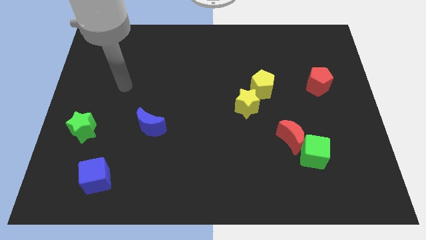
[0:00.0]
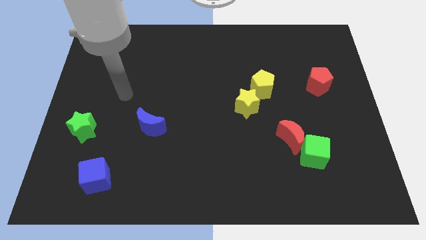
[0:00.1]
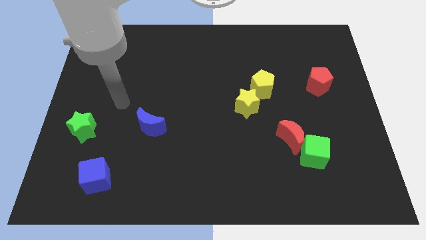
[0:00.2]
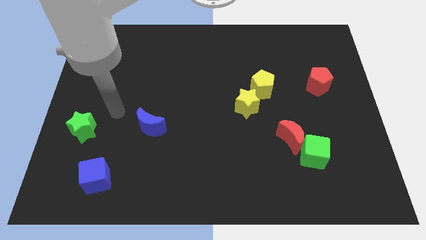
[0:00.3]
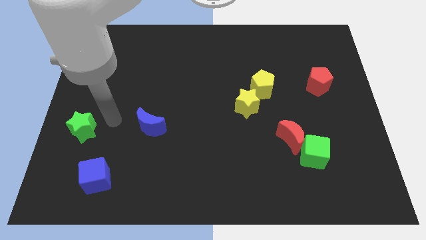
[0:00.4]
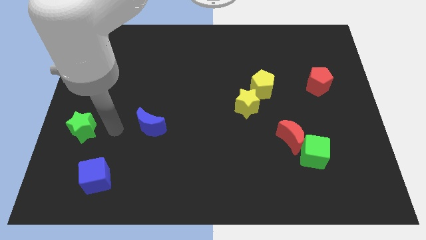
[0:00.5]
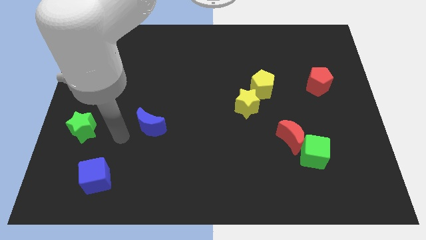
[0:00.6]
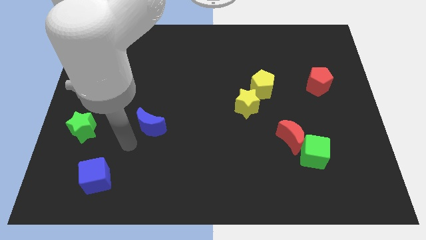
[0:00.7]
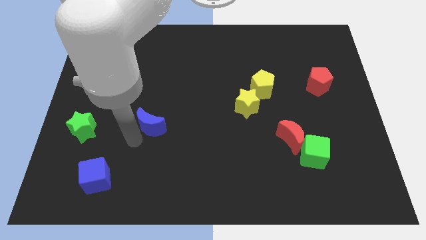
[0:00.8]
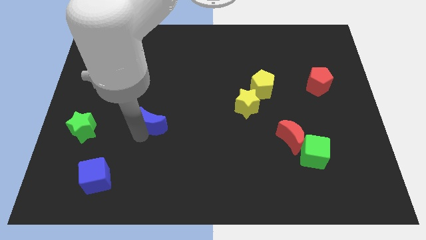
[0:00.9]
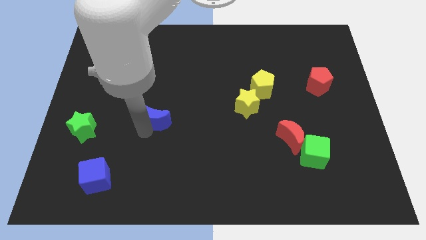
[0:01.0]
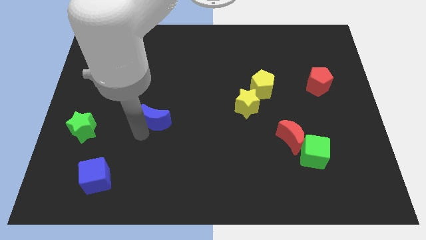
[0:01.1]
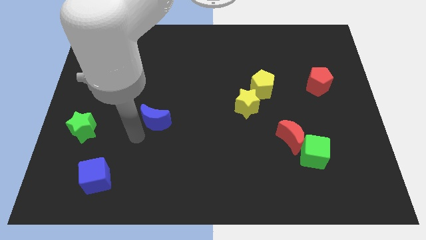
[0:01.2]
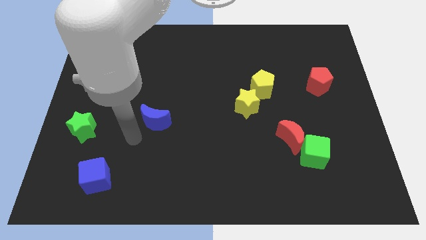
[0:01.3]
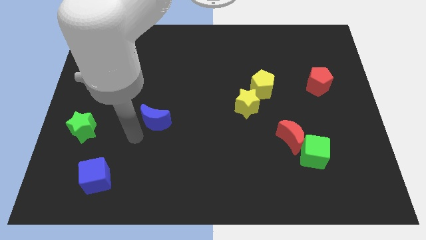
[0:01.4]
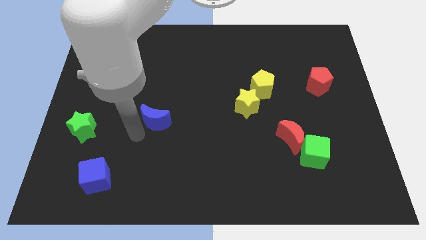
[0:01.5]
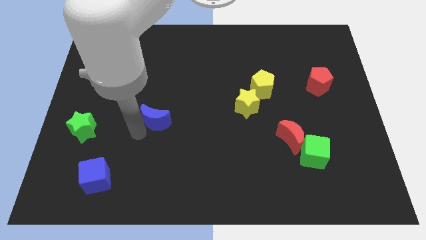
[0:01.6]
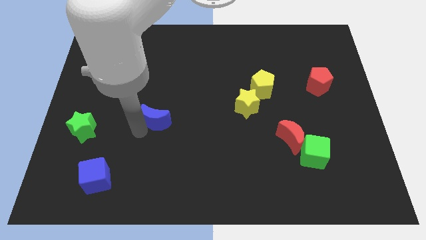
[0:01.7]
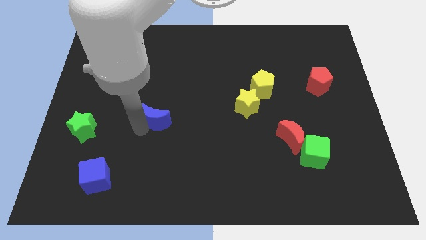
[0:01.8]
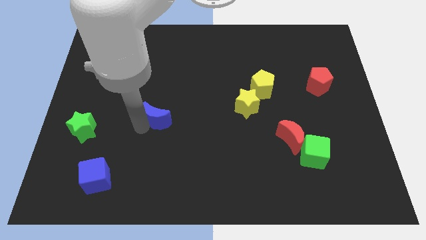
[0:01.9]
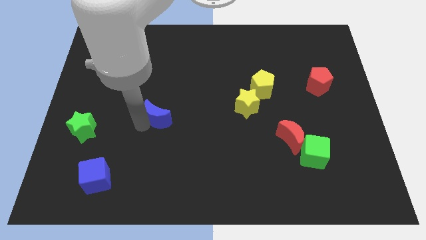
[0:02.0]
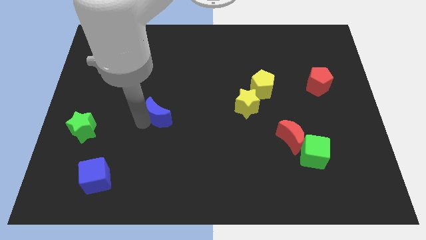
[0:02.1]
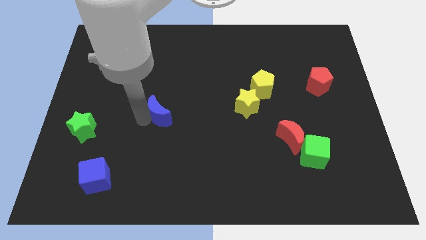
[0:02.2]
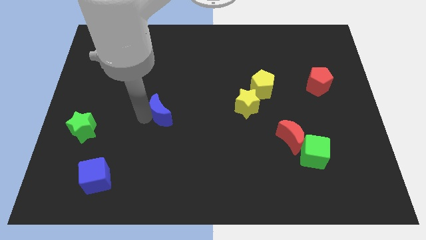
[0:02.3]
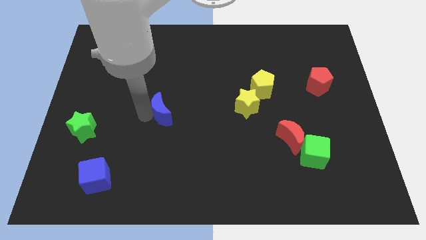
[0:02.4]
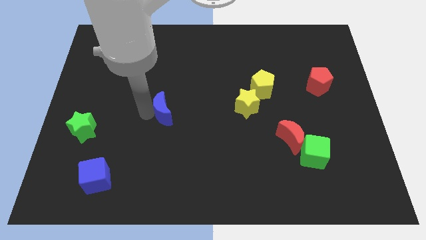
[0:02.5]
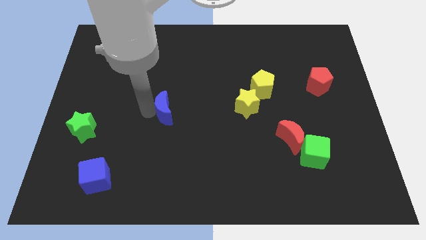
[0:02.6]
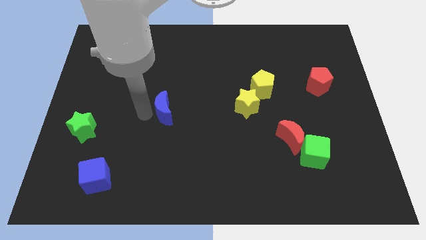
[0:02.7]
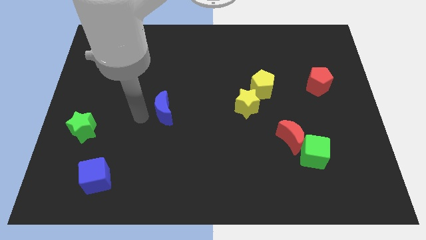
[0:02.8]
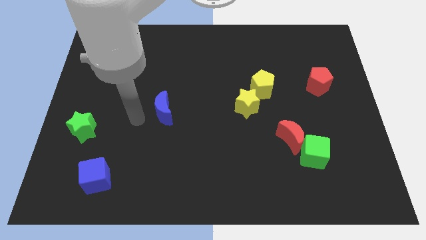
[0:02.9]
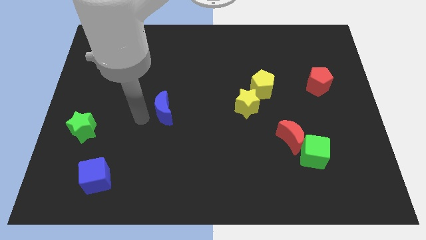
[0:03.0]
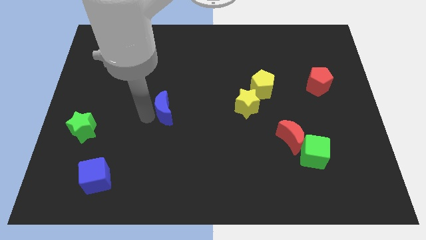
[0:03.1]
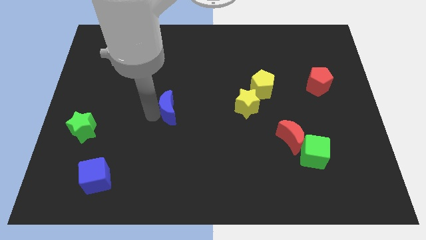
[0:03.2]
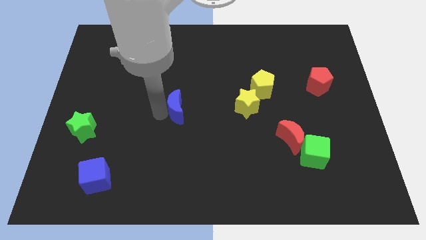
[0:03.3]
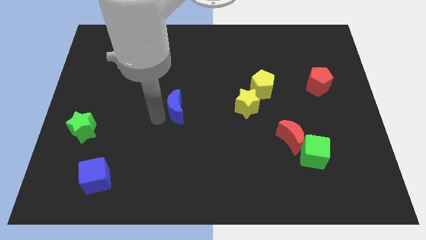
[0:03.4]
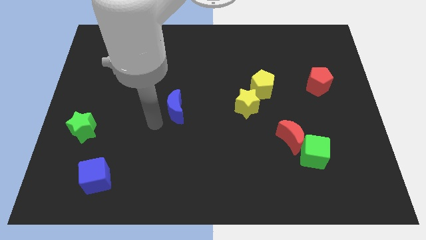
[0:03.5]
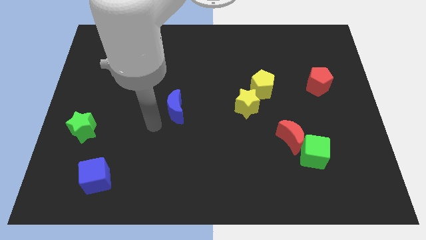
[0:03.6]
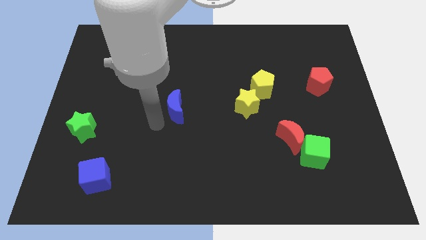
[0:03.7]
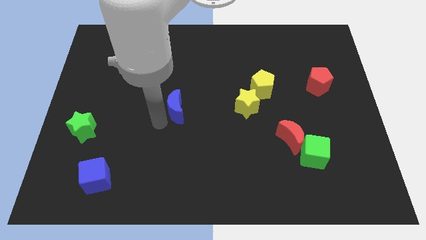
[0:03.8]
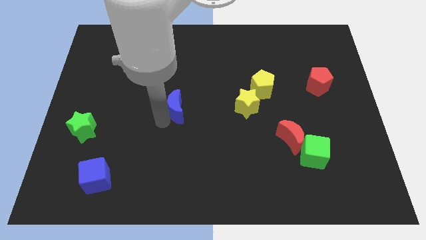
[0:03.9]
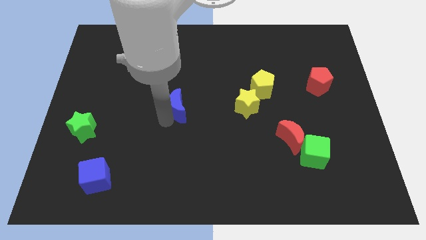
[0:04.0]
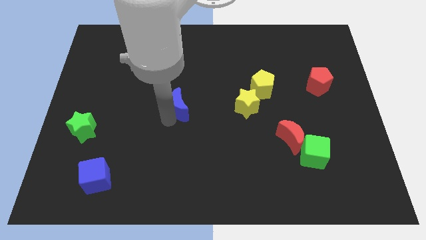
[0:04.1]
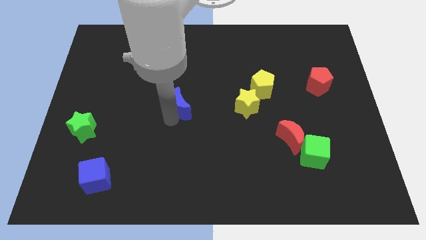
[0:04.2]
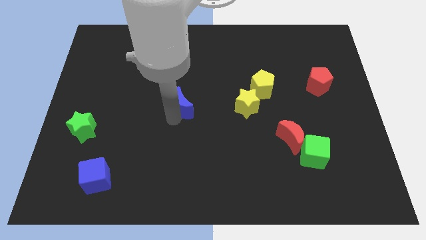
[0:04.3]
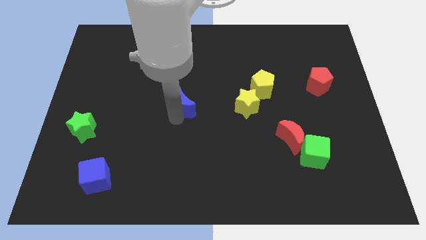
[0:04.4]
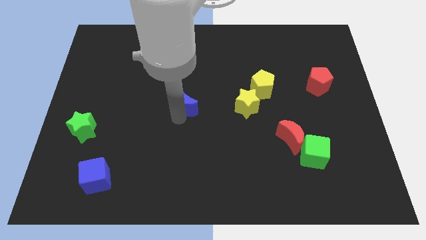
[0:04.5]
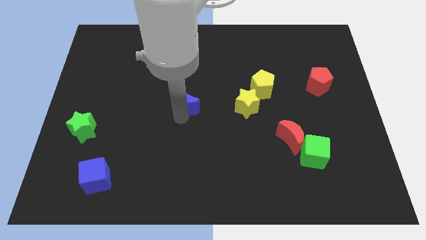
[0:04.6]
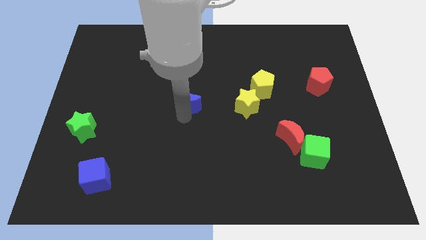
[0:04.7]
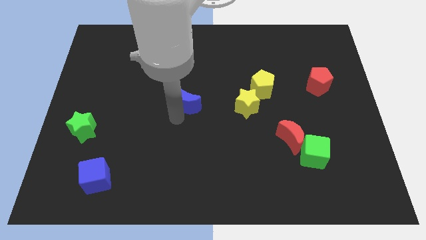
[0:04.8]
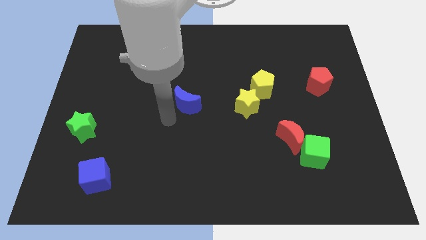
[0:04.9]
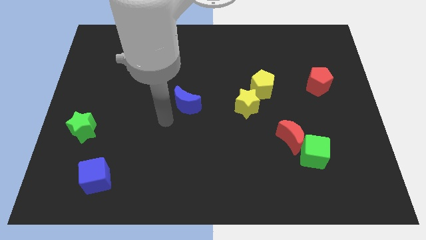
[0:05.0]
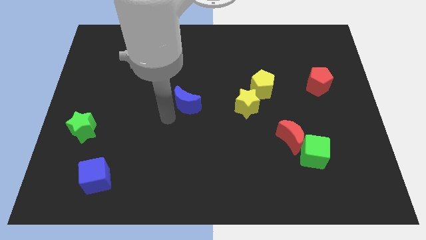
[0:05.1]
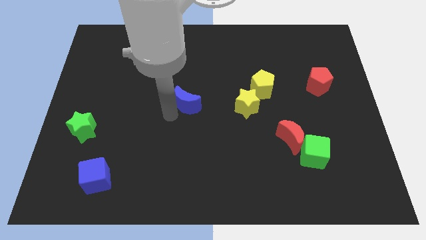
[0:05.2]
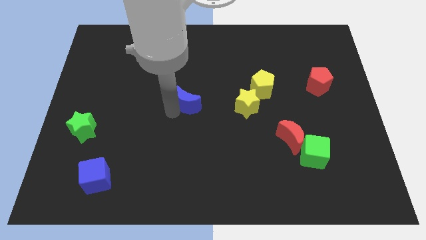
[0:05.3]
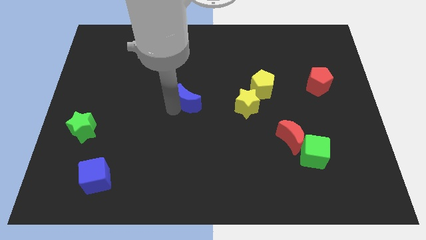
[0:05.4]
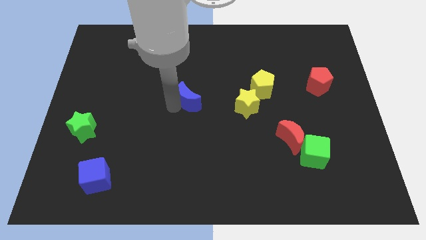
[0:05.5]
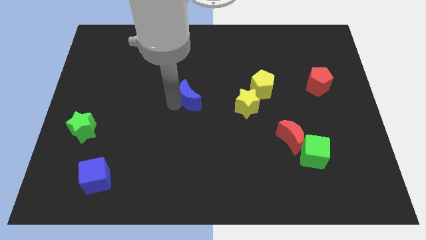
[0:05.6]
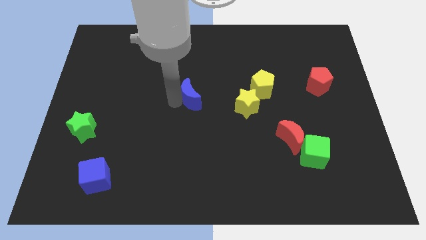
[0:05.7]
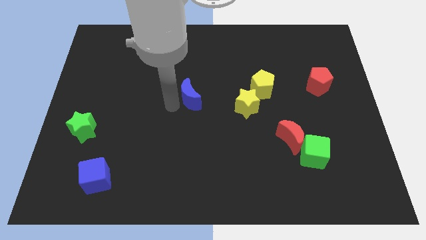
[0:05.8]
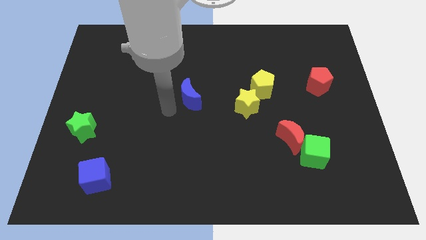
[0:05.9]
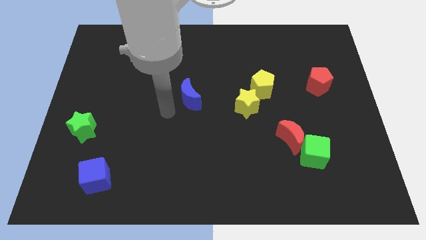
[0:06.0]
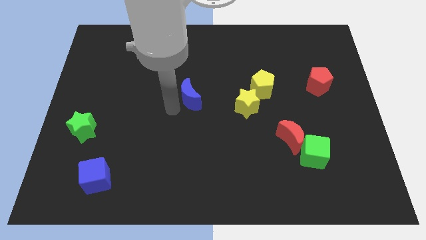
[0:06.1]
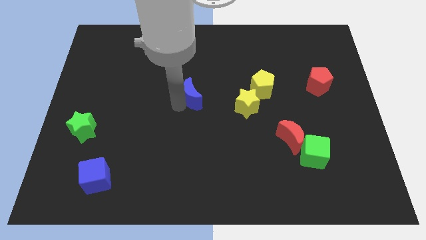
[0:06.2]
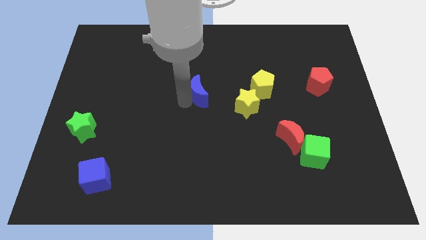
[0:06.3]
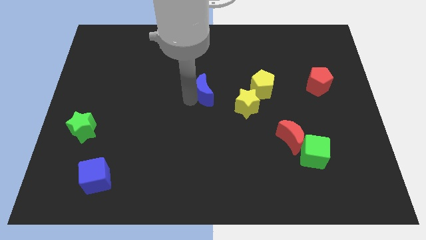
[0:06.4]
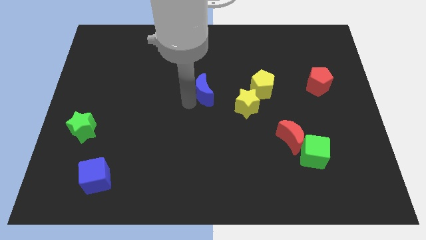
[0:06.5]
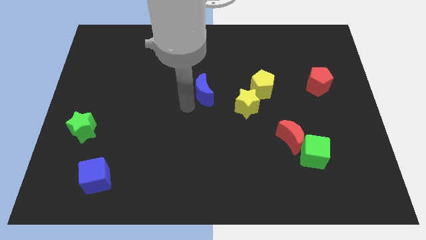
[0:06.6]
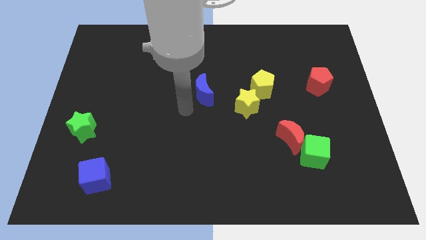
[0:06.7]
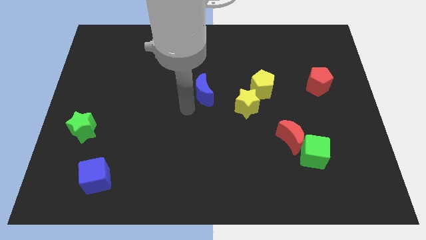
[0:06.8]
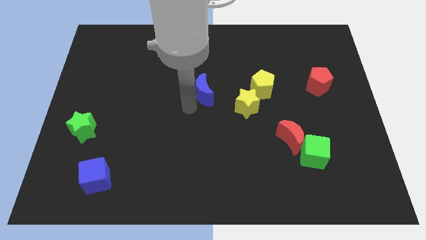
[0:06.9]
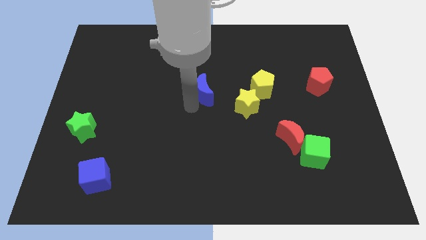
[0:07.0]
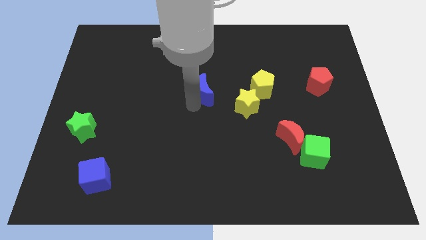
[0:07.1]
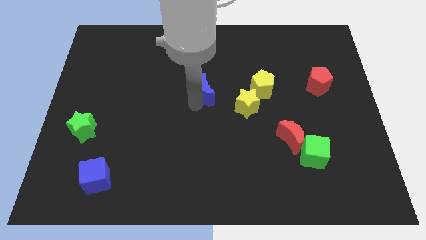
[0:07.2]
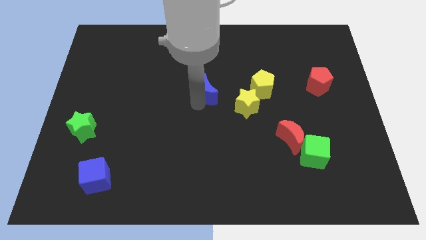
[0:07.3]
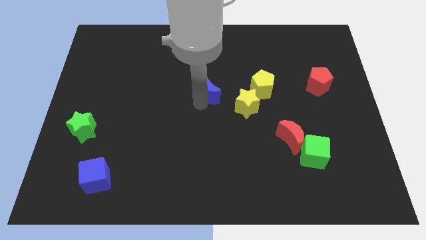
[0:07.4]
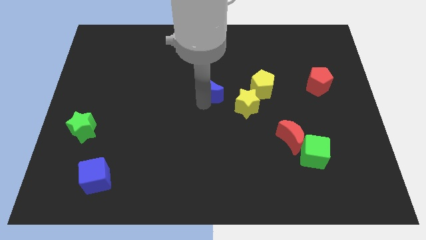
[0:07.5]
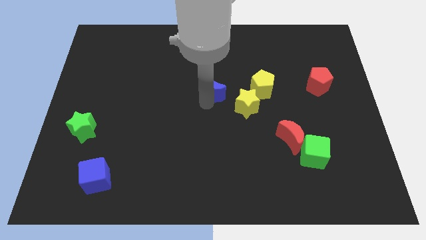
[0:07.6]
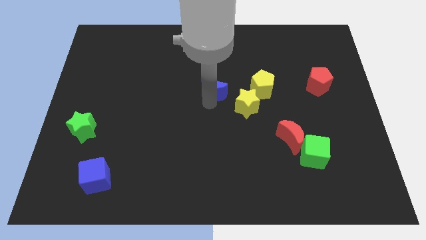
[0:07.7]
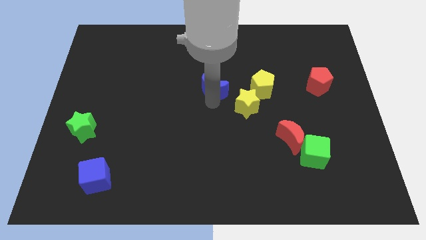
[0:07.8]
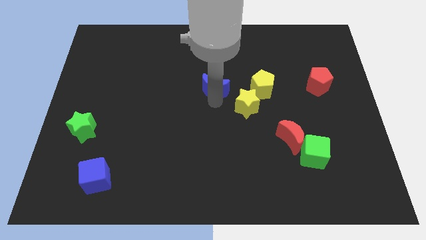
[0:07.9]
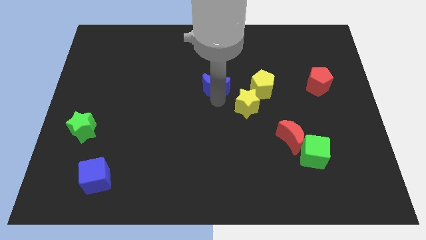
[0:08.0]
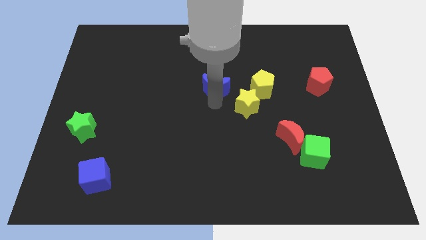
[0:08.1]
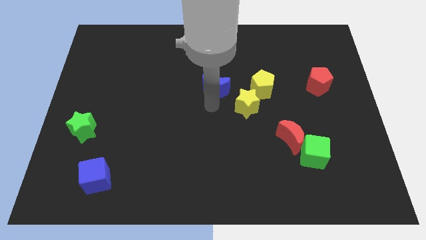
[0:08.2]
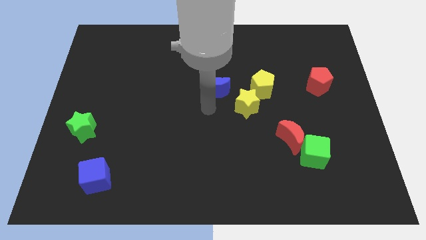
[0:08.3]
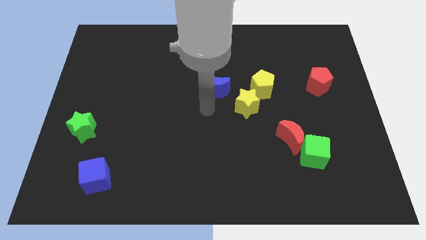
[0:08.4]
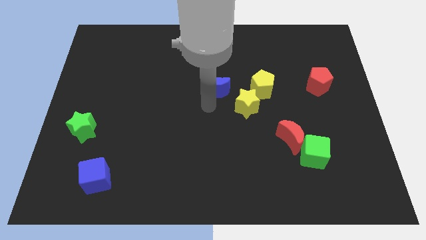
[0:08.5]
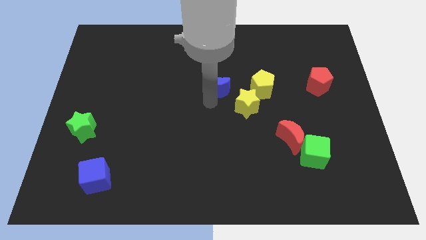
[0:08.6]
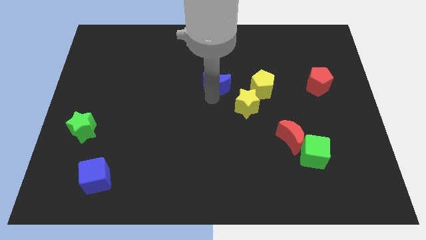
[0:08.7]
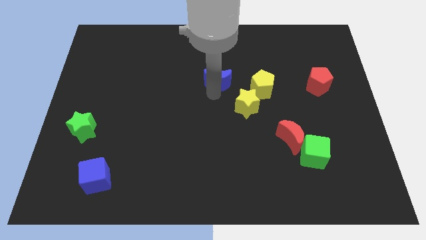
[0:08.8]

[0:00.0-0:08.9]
slide the blue moon up and to the right diagonally
